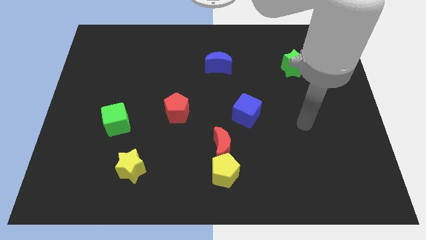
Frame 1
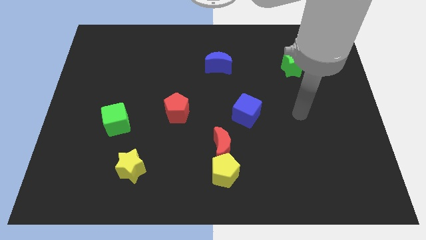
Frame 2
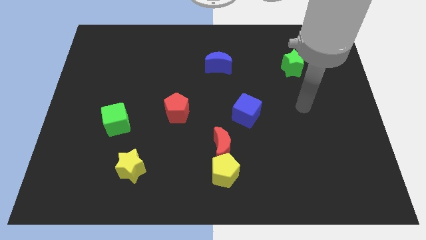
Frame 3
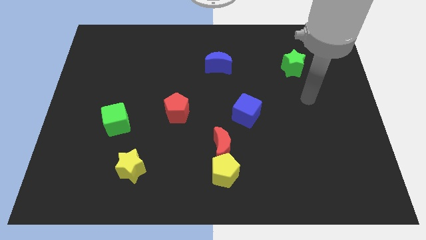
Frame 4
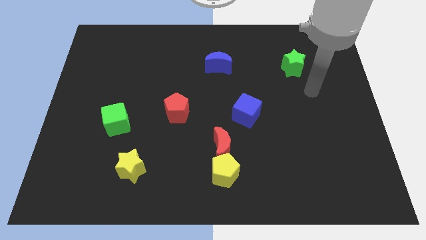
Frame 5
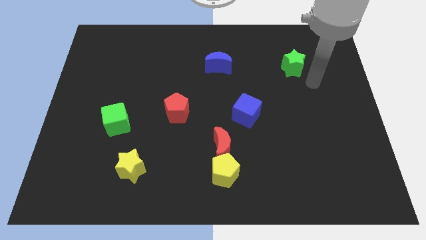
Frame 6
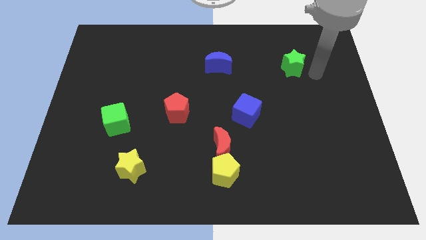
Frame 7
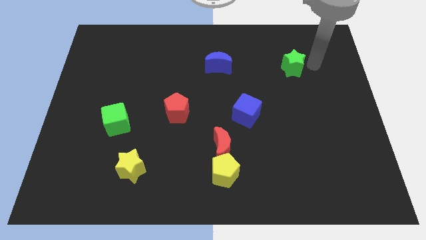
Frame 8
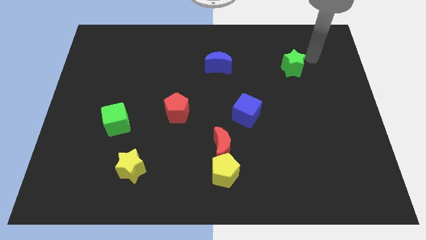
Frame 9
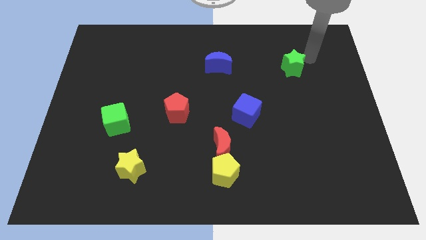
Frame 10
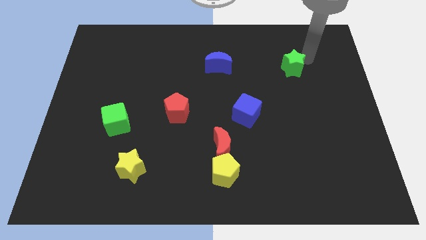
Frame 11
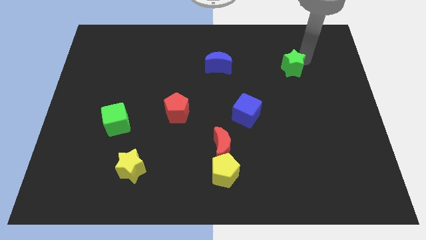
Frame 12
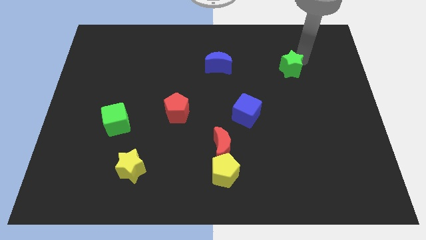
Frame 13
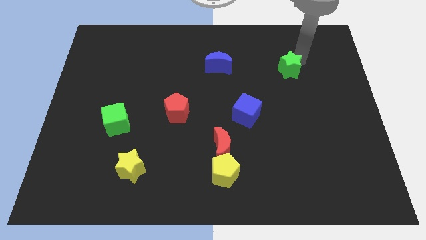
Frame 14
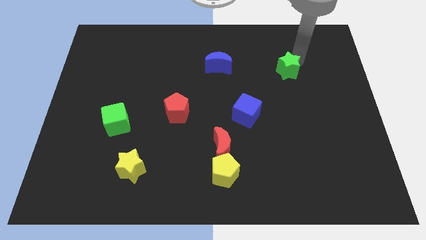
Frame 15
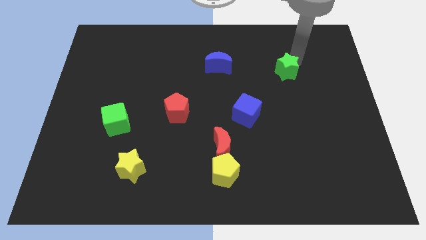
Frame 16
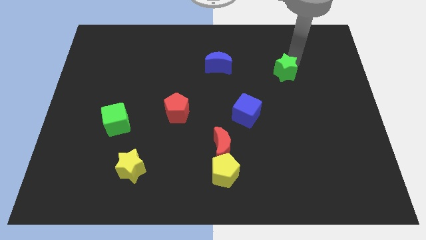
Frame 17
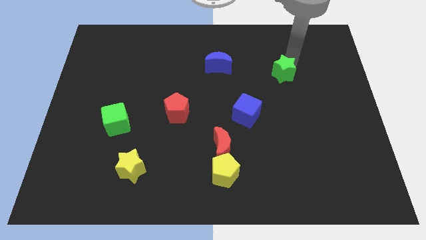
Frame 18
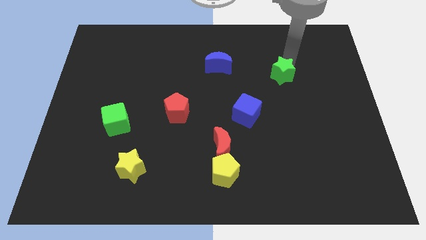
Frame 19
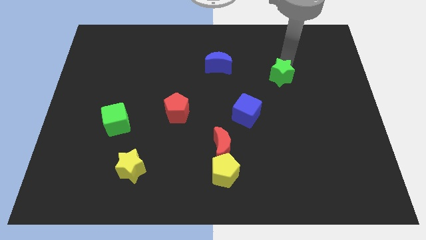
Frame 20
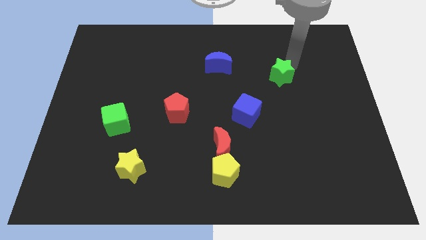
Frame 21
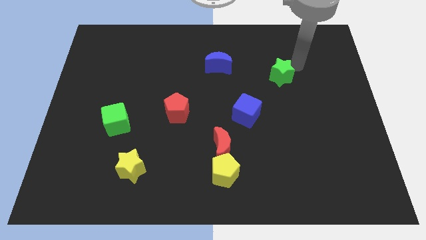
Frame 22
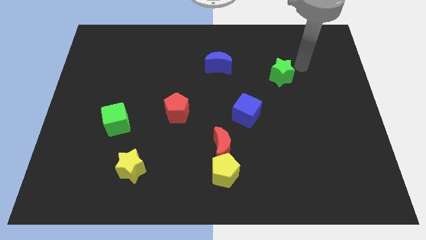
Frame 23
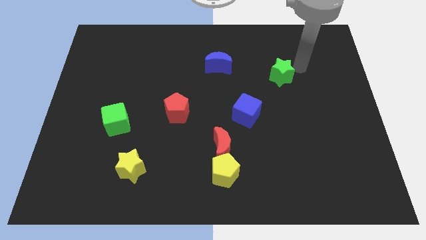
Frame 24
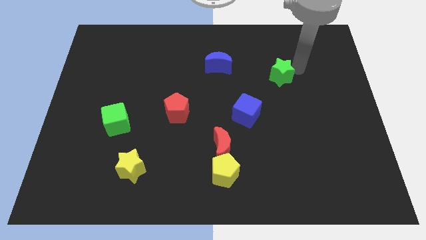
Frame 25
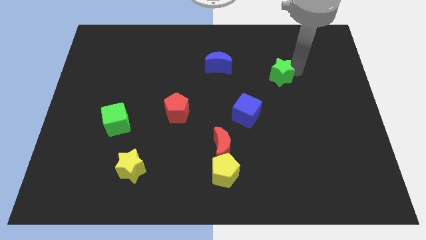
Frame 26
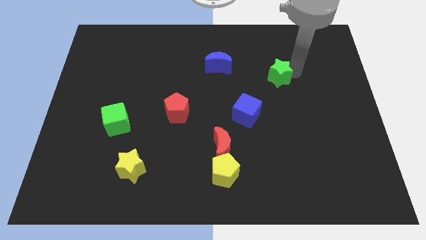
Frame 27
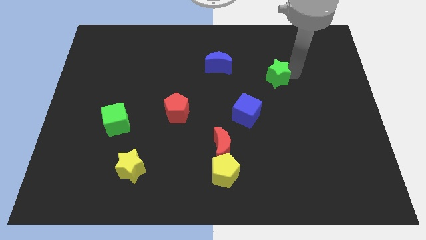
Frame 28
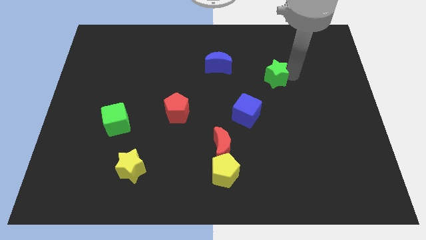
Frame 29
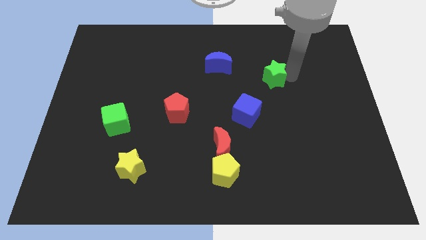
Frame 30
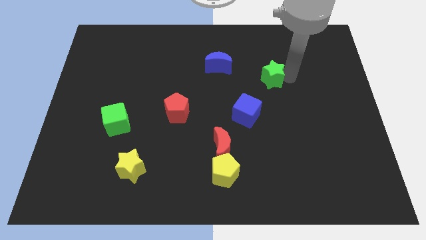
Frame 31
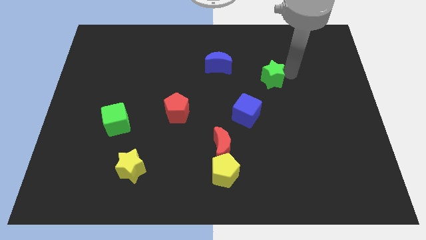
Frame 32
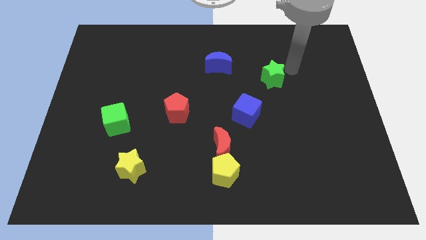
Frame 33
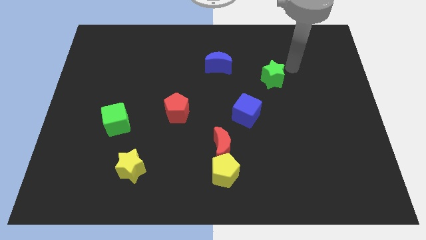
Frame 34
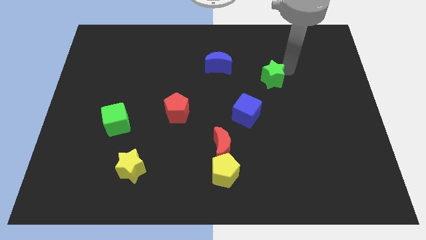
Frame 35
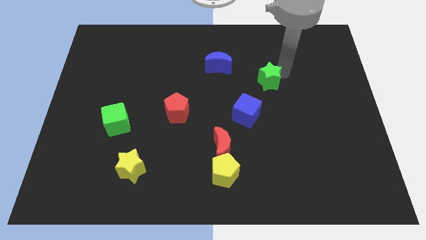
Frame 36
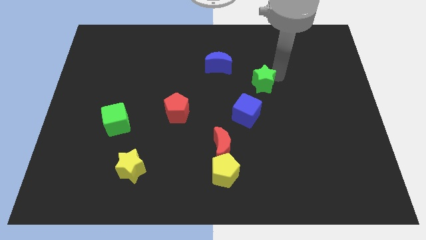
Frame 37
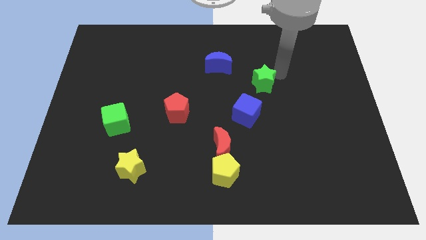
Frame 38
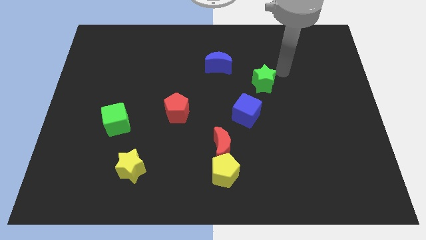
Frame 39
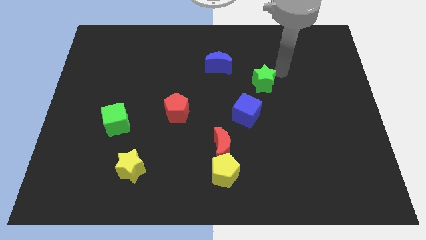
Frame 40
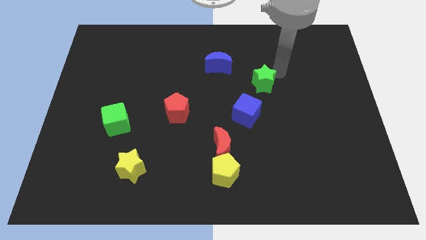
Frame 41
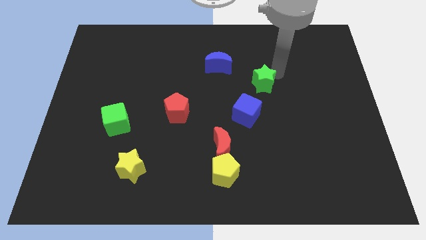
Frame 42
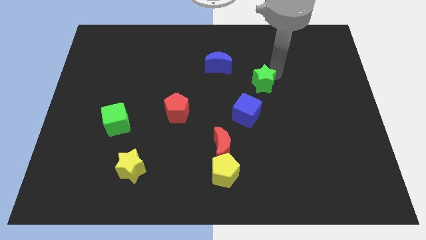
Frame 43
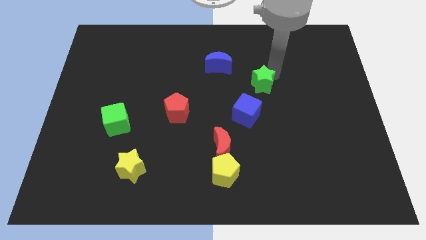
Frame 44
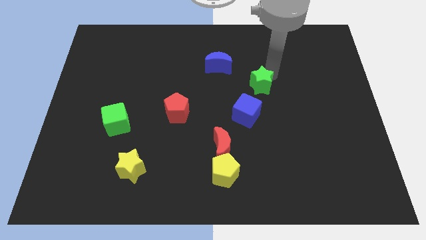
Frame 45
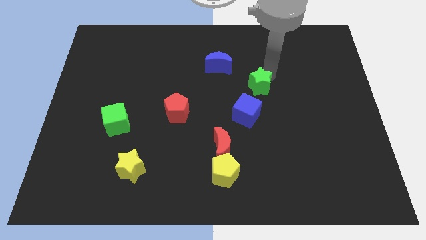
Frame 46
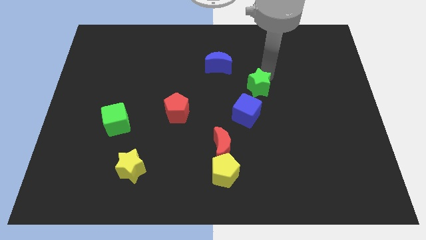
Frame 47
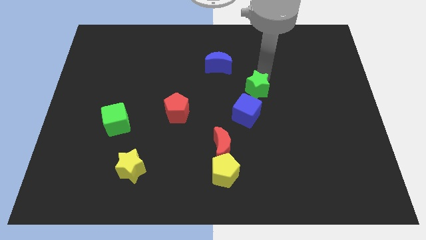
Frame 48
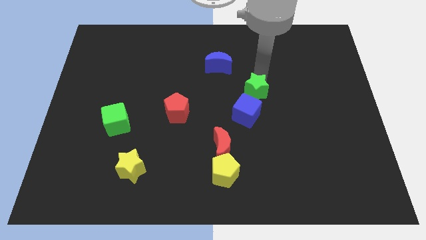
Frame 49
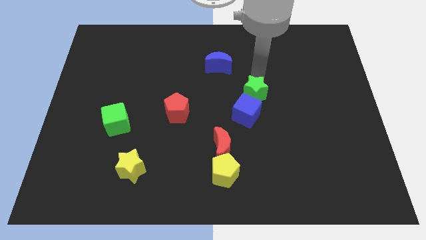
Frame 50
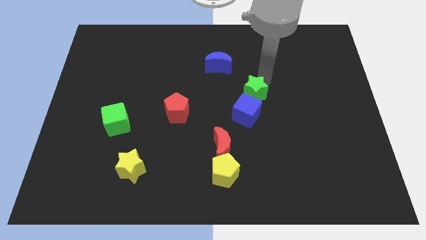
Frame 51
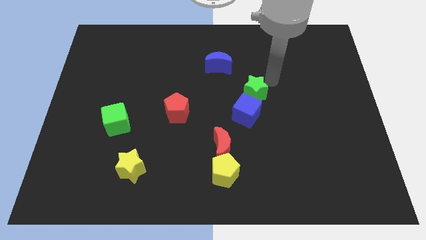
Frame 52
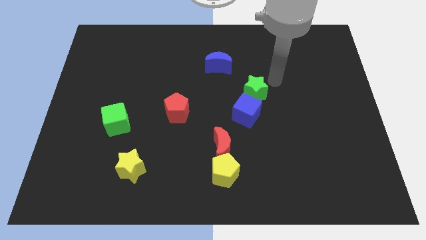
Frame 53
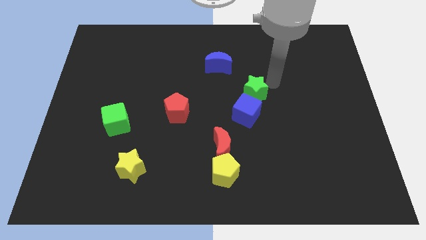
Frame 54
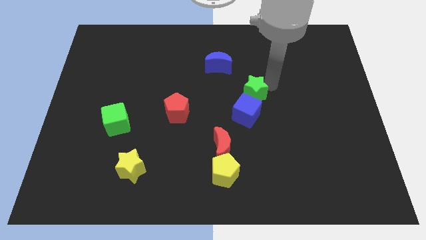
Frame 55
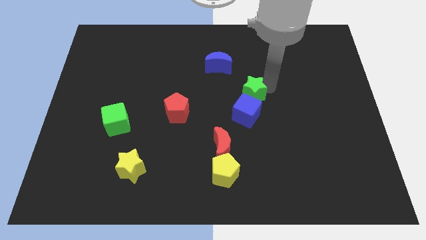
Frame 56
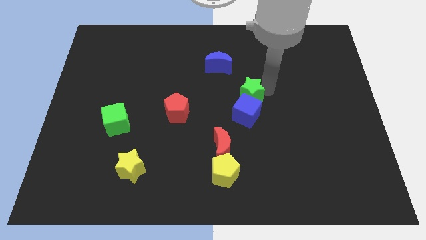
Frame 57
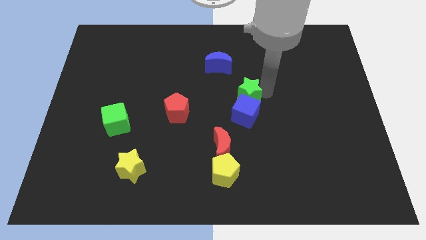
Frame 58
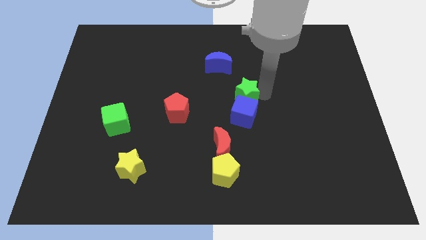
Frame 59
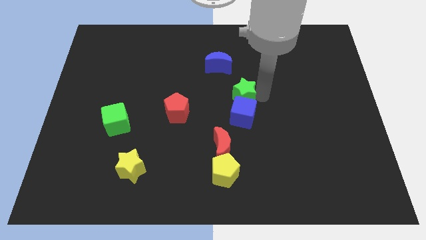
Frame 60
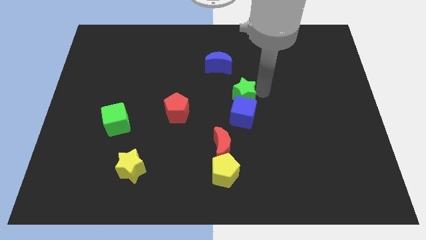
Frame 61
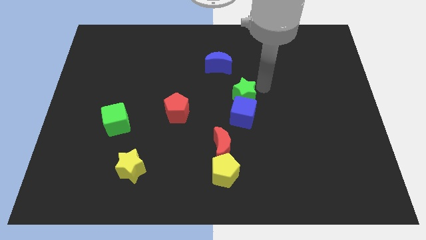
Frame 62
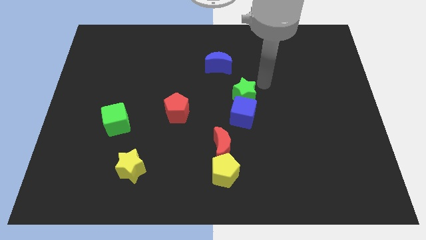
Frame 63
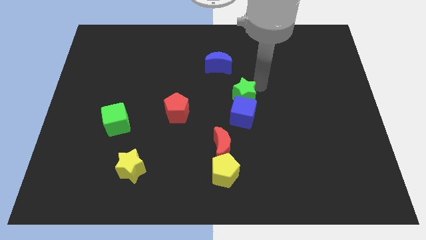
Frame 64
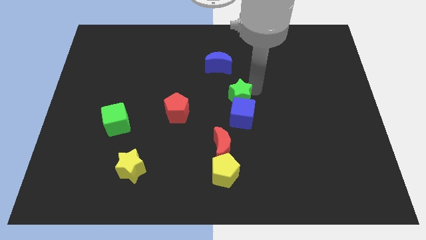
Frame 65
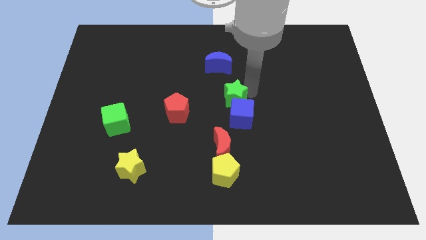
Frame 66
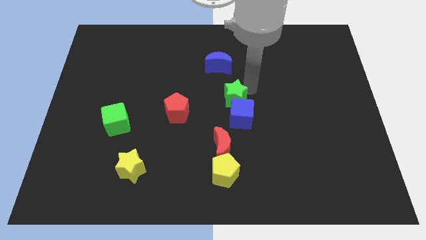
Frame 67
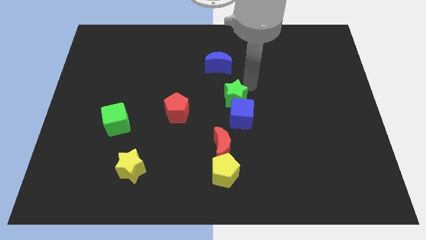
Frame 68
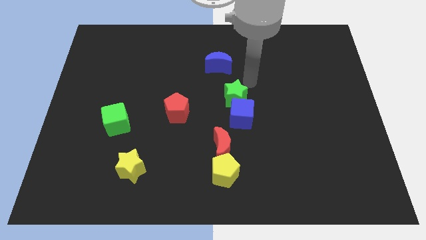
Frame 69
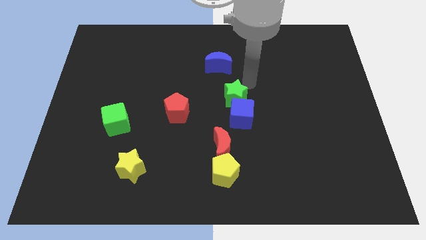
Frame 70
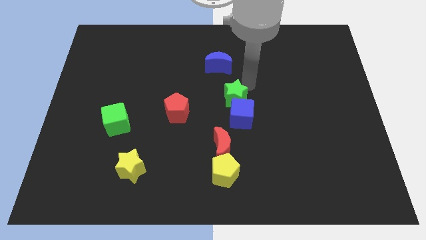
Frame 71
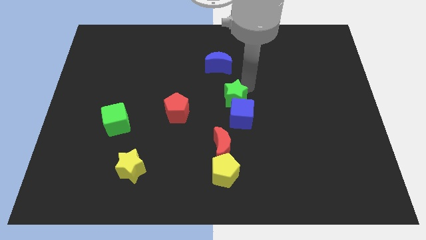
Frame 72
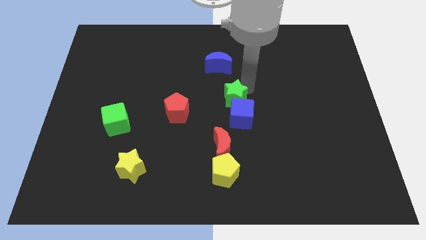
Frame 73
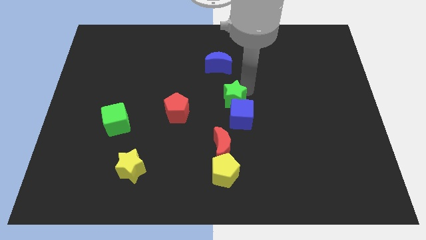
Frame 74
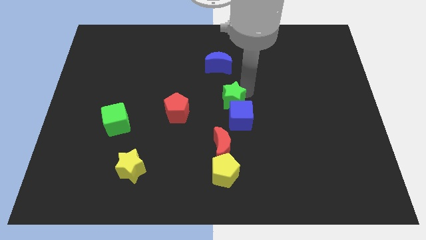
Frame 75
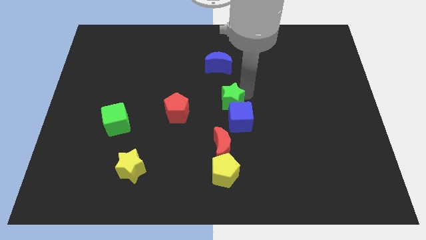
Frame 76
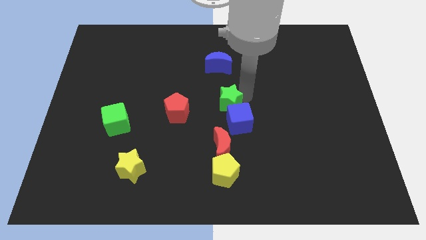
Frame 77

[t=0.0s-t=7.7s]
push the green star down and to the left

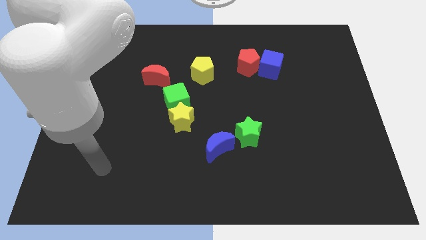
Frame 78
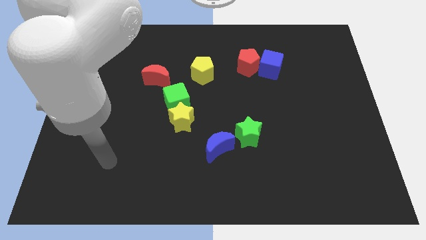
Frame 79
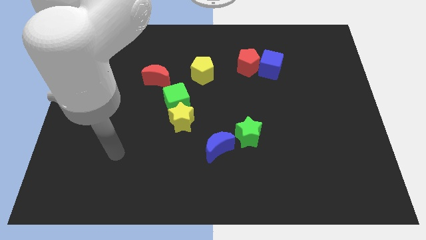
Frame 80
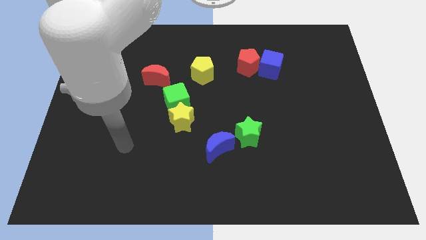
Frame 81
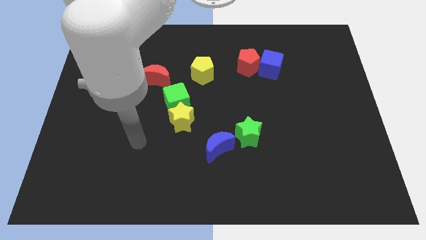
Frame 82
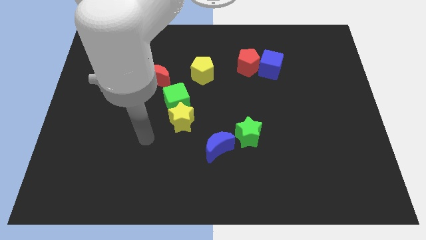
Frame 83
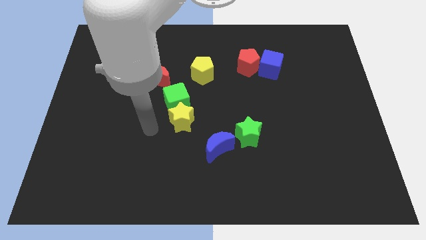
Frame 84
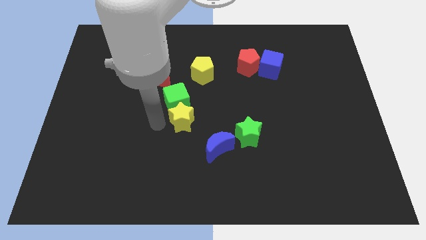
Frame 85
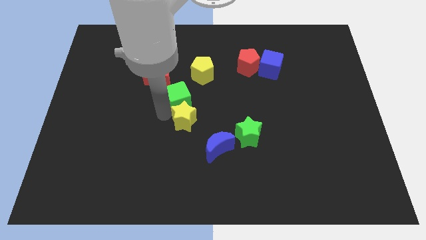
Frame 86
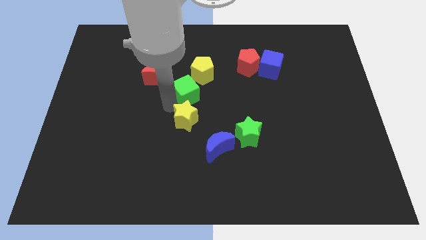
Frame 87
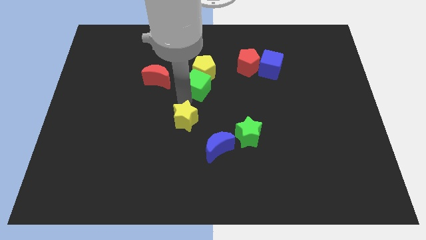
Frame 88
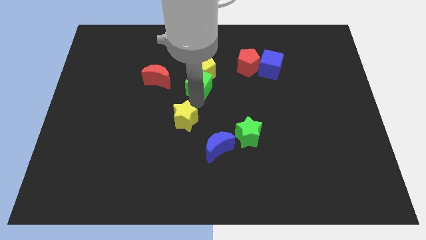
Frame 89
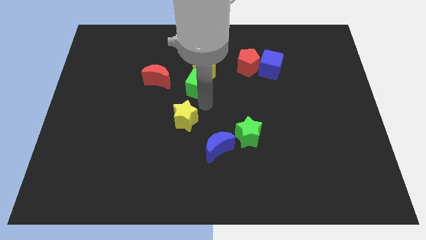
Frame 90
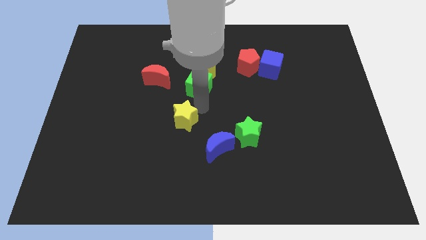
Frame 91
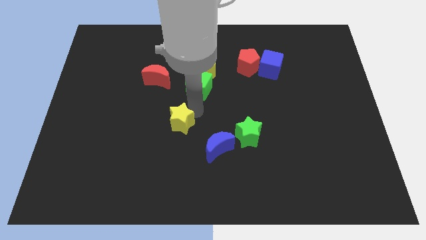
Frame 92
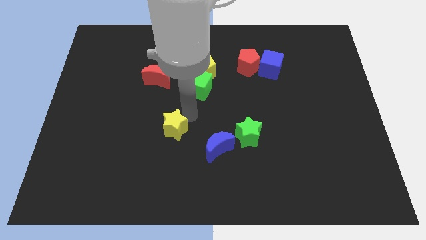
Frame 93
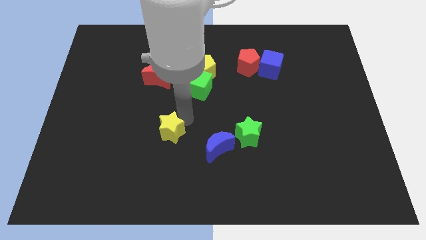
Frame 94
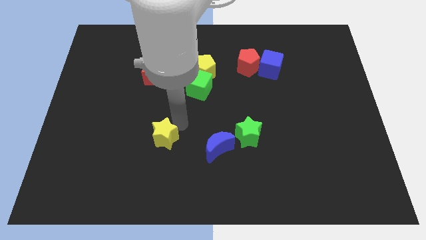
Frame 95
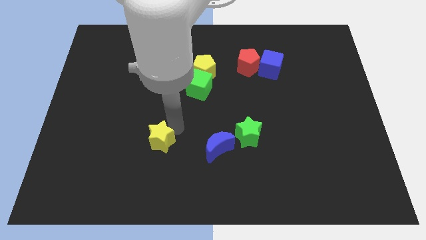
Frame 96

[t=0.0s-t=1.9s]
slightly slide the yellow star downwards and left diagonally
